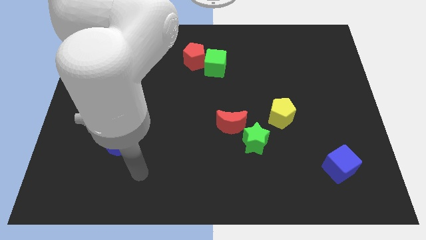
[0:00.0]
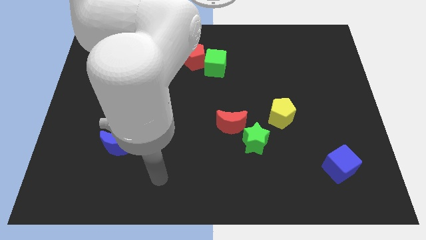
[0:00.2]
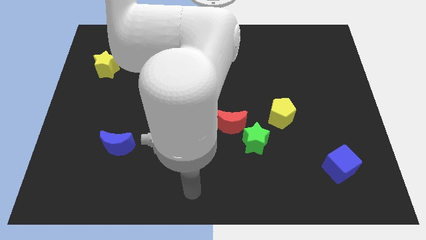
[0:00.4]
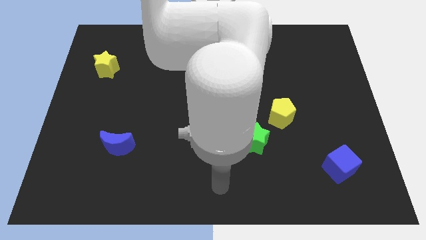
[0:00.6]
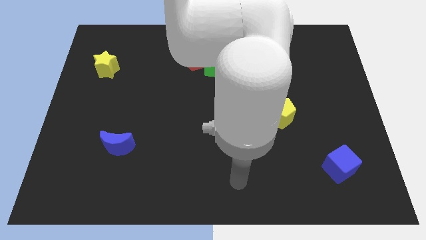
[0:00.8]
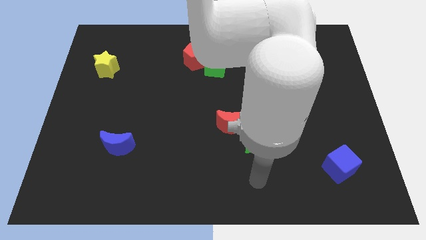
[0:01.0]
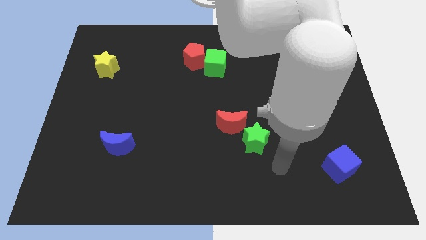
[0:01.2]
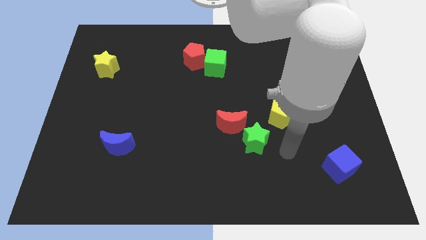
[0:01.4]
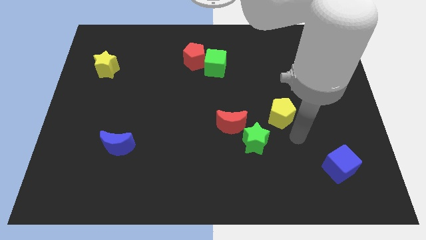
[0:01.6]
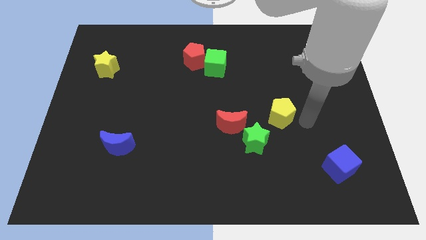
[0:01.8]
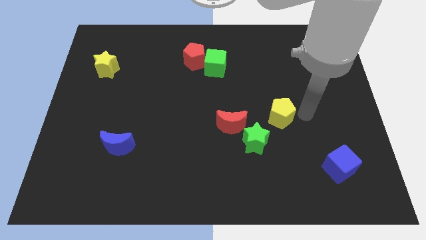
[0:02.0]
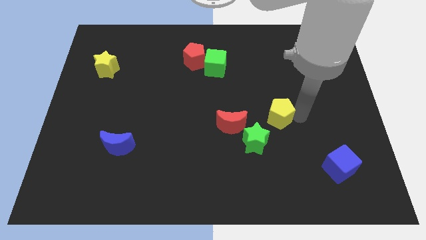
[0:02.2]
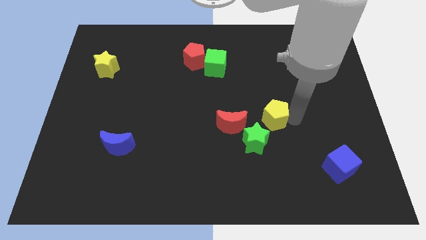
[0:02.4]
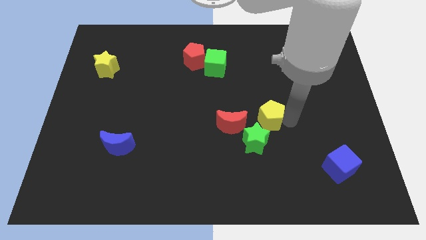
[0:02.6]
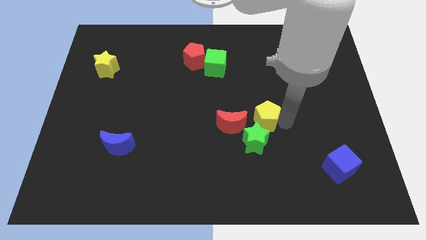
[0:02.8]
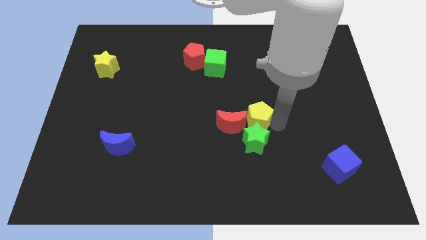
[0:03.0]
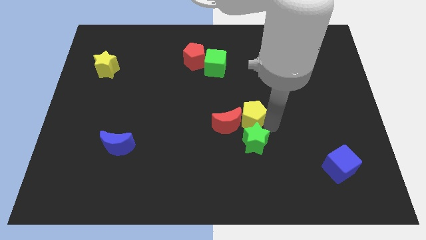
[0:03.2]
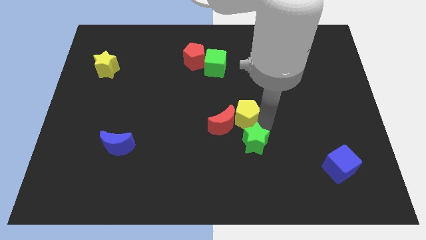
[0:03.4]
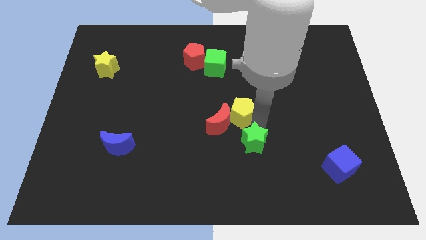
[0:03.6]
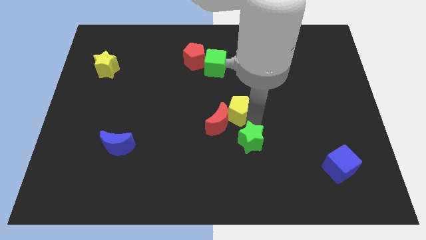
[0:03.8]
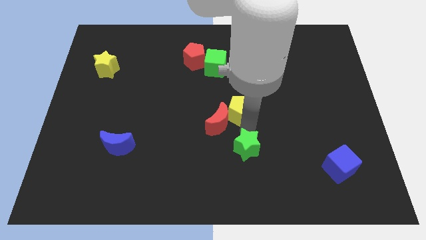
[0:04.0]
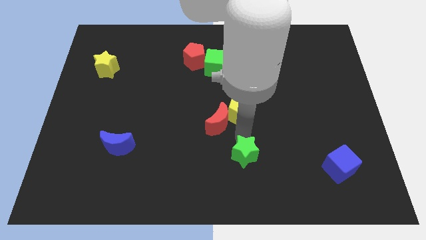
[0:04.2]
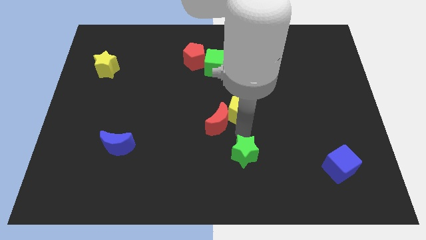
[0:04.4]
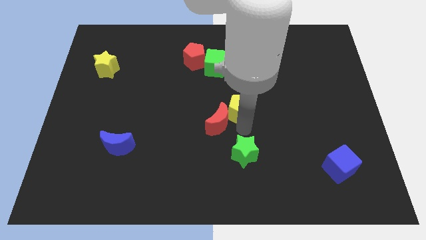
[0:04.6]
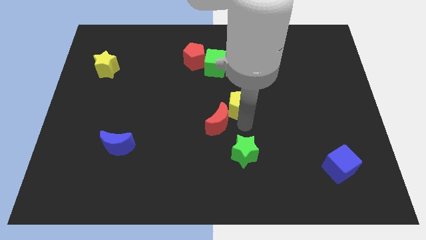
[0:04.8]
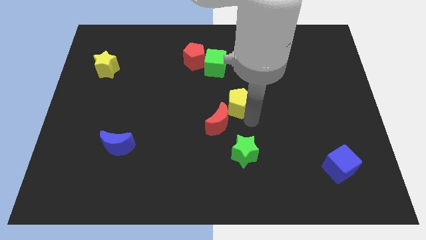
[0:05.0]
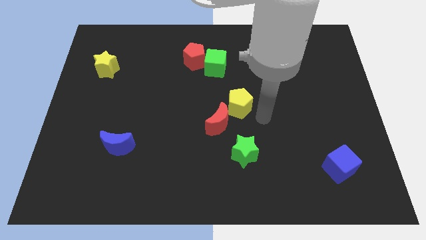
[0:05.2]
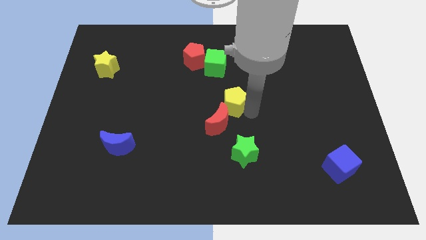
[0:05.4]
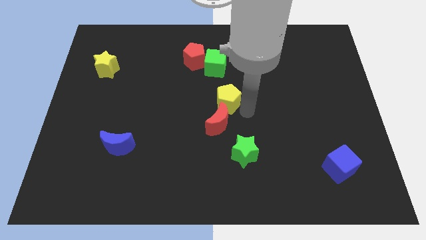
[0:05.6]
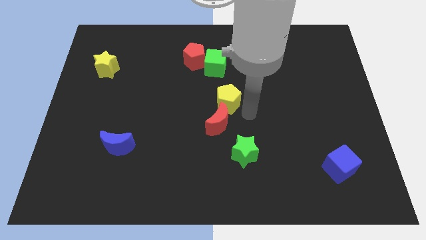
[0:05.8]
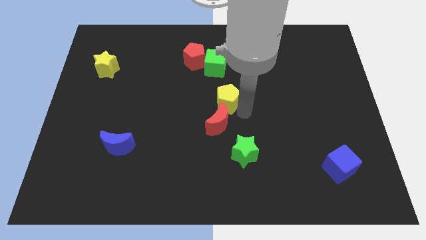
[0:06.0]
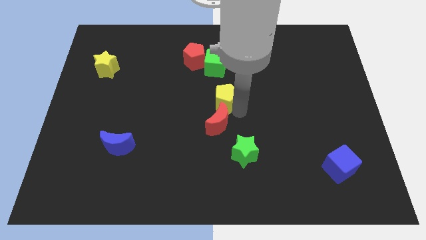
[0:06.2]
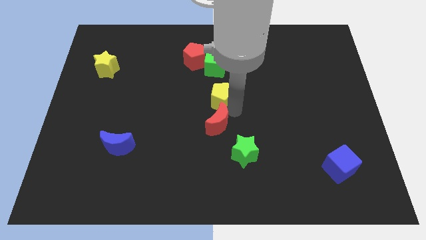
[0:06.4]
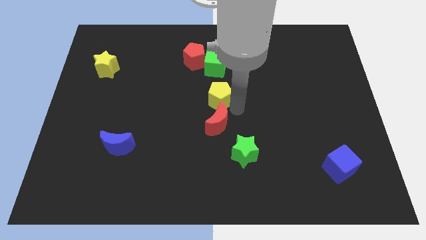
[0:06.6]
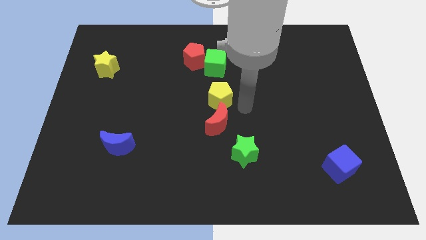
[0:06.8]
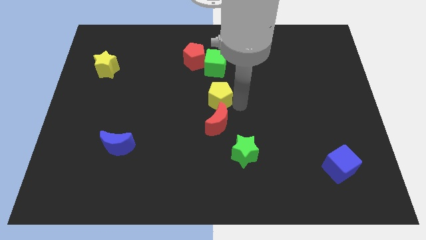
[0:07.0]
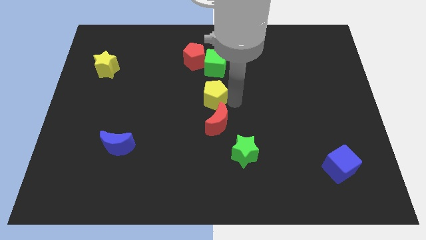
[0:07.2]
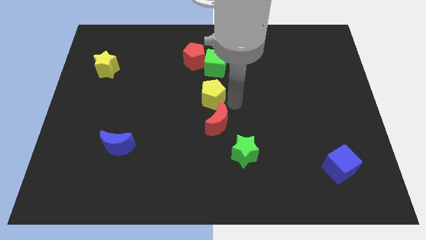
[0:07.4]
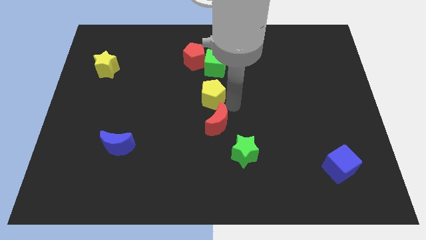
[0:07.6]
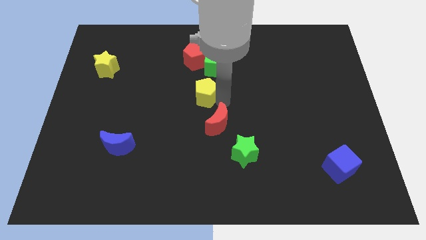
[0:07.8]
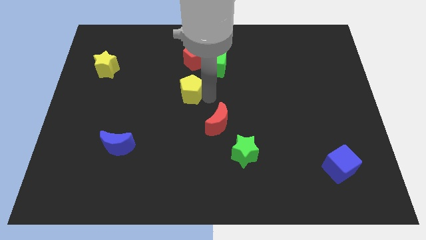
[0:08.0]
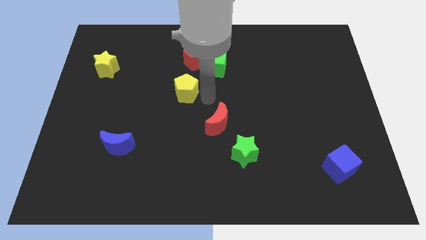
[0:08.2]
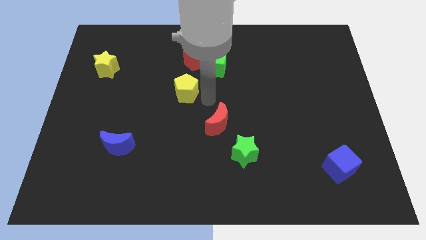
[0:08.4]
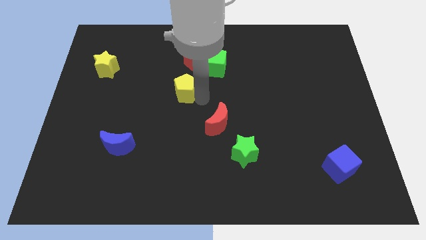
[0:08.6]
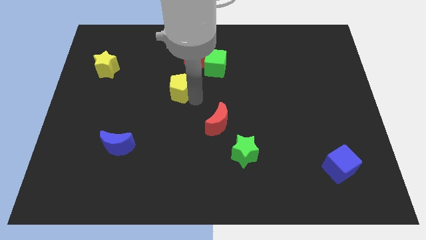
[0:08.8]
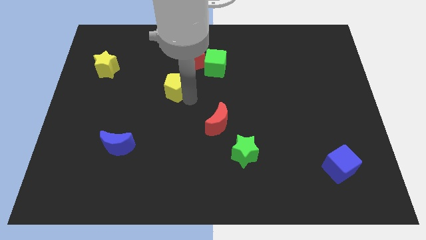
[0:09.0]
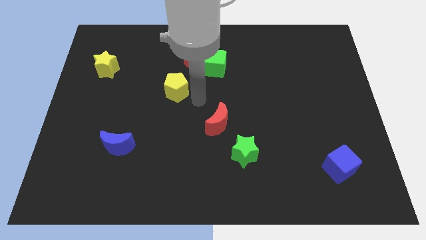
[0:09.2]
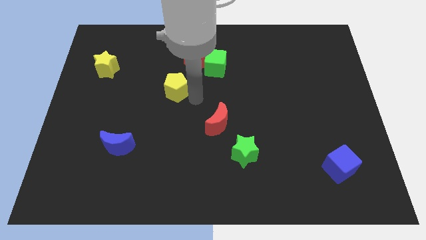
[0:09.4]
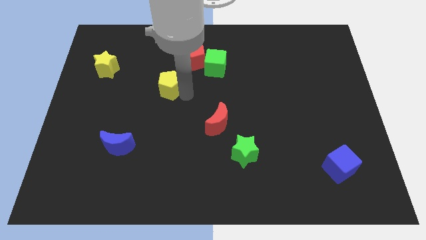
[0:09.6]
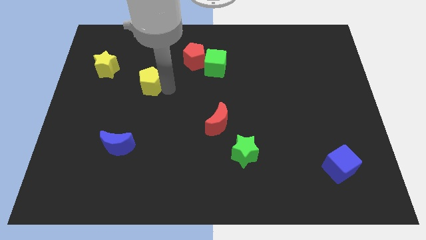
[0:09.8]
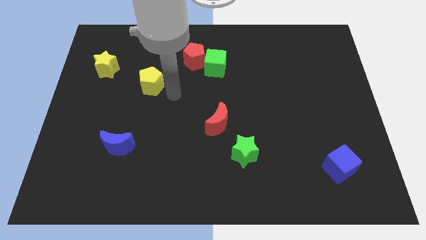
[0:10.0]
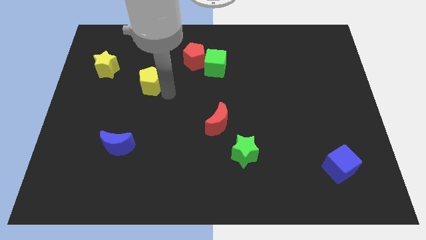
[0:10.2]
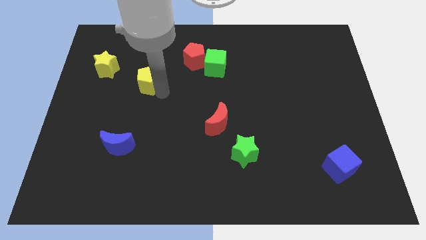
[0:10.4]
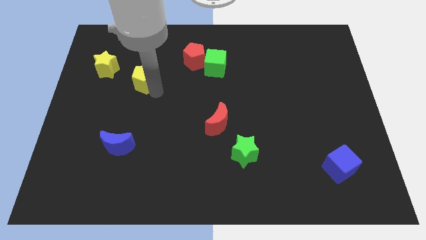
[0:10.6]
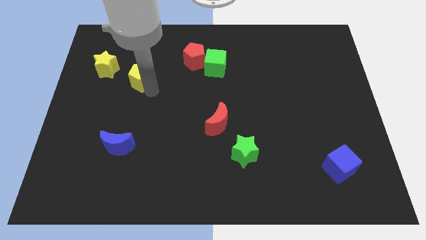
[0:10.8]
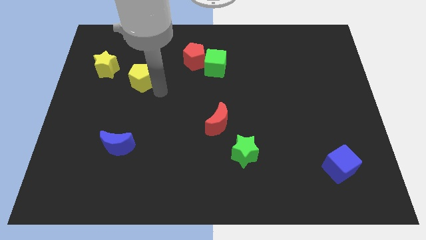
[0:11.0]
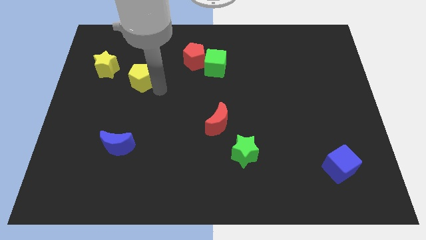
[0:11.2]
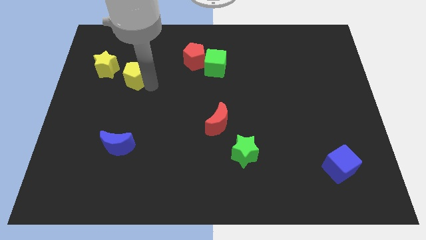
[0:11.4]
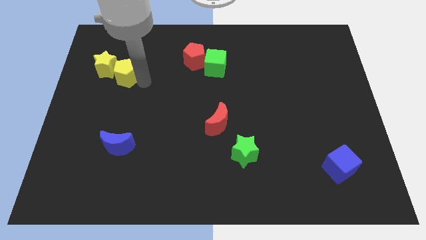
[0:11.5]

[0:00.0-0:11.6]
move the yellow pentagon towards the yellow star

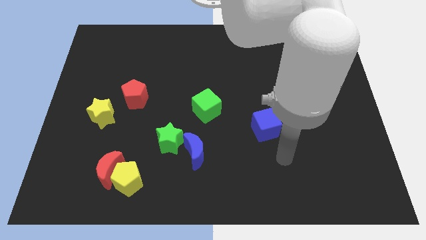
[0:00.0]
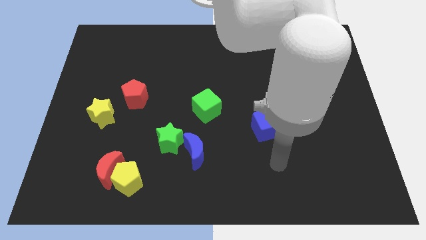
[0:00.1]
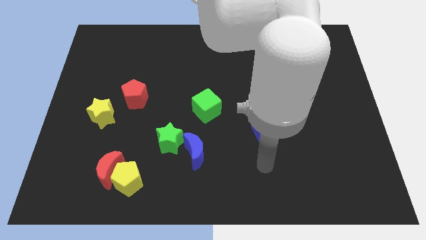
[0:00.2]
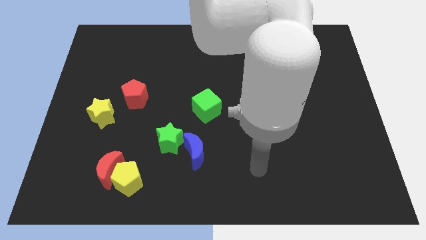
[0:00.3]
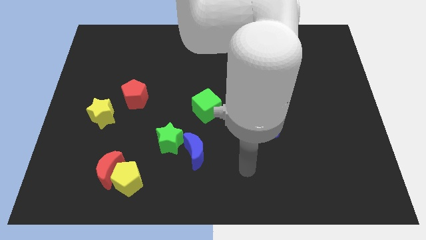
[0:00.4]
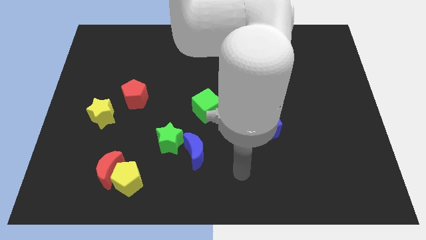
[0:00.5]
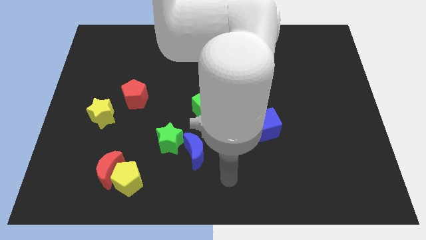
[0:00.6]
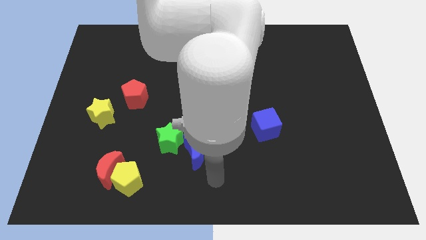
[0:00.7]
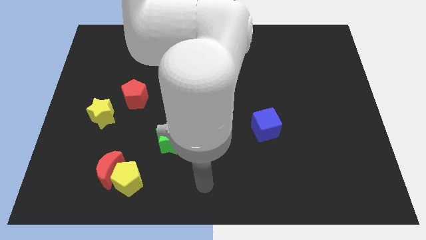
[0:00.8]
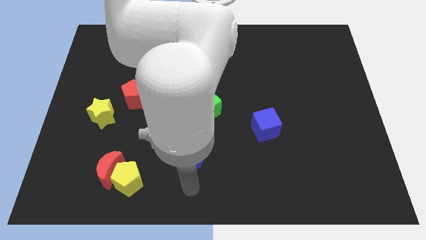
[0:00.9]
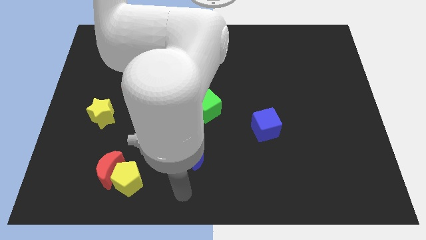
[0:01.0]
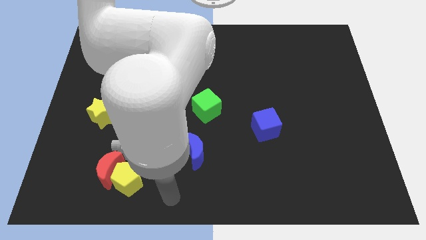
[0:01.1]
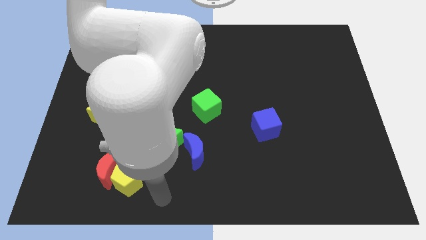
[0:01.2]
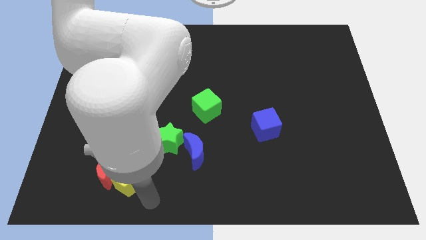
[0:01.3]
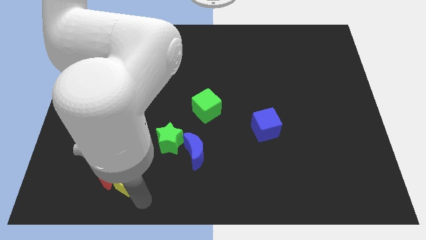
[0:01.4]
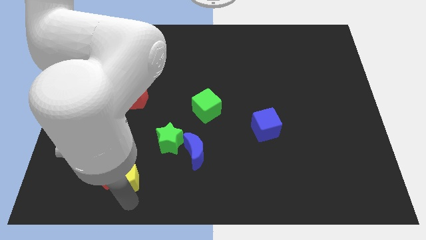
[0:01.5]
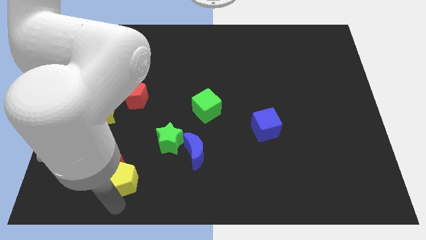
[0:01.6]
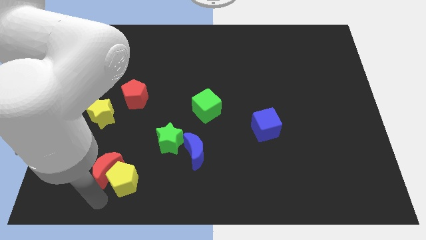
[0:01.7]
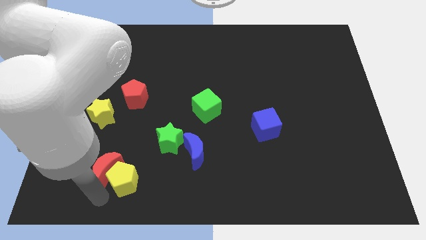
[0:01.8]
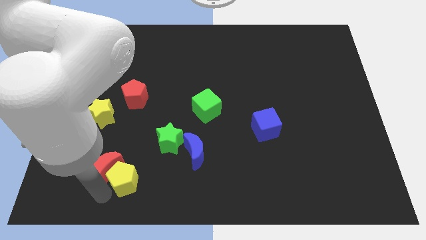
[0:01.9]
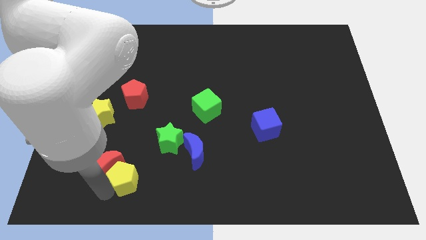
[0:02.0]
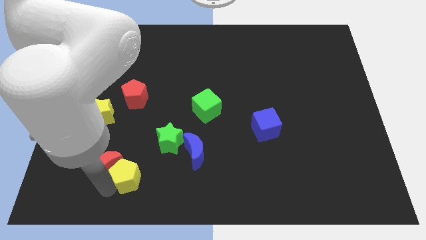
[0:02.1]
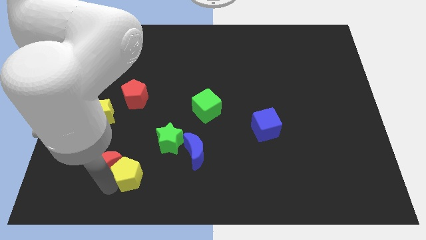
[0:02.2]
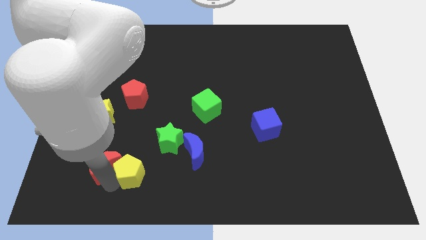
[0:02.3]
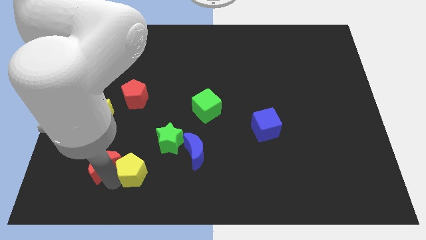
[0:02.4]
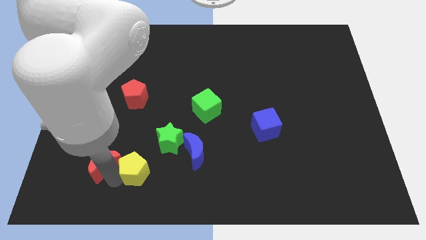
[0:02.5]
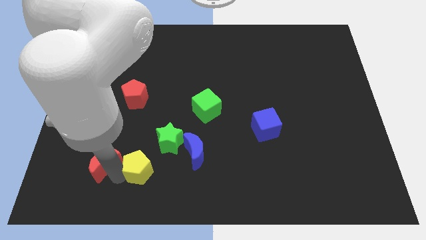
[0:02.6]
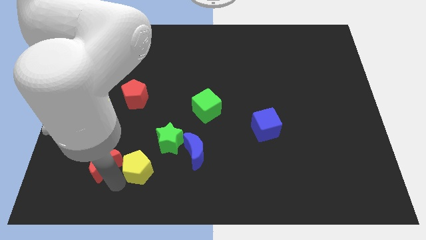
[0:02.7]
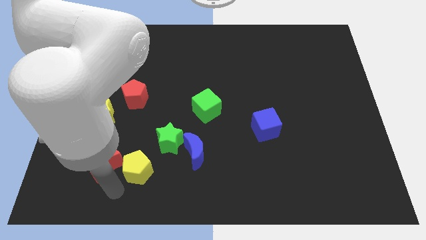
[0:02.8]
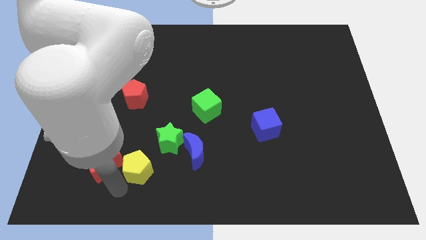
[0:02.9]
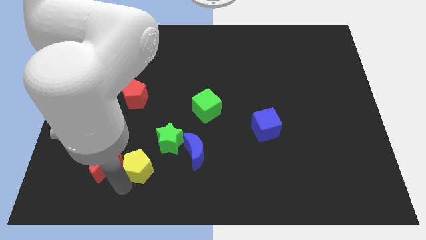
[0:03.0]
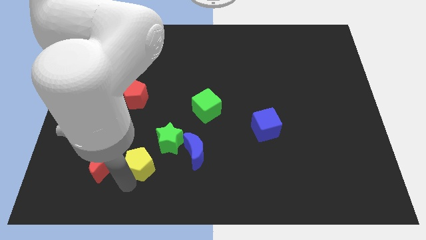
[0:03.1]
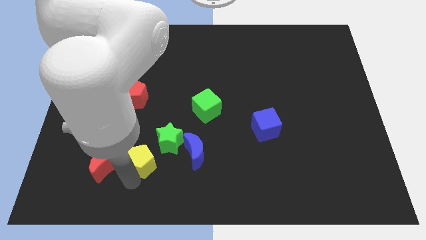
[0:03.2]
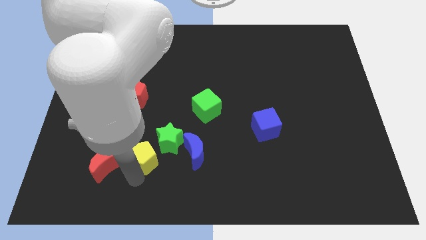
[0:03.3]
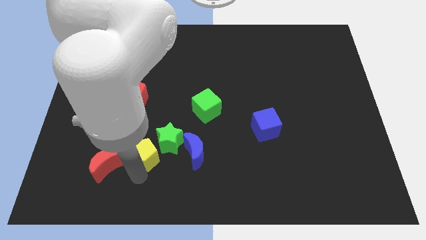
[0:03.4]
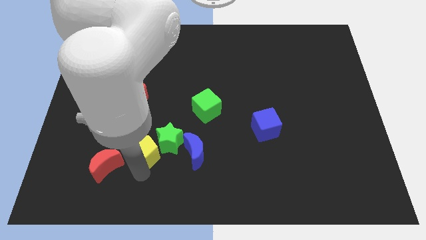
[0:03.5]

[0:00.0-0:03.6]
slide the yellow pentagon towards the green star
